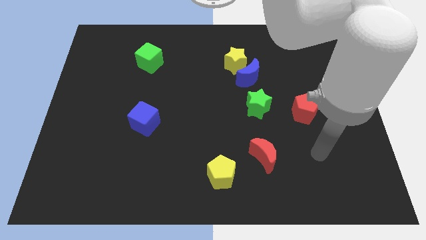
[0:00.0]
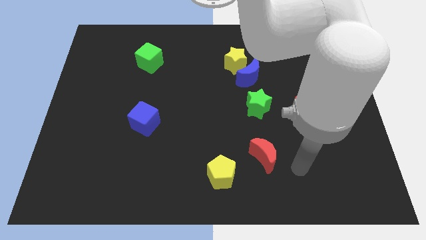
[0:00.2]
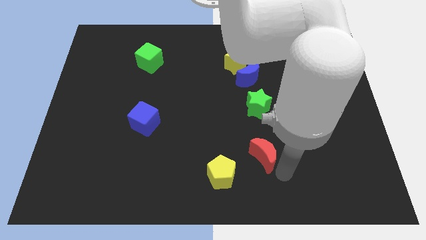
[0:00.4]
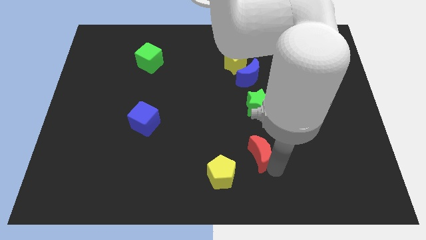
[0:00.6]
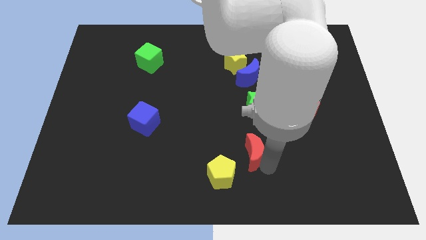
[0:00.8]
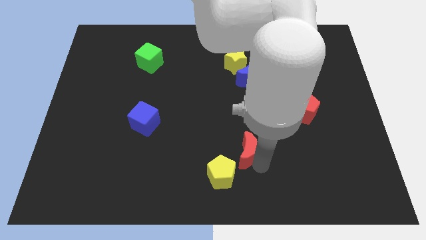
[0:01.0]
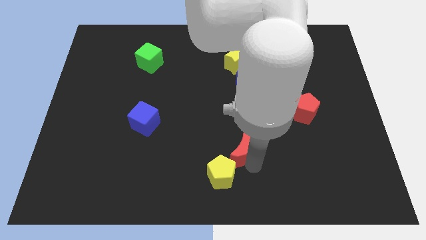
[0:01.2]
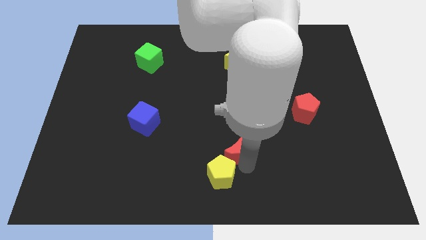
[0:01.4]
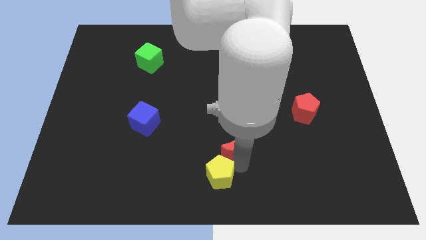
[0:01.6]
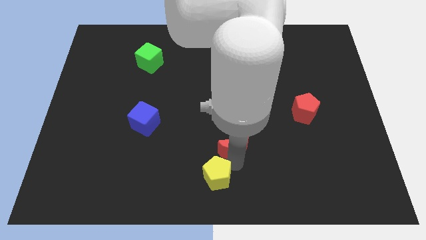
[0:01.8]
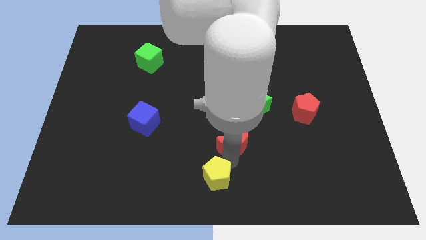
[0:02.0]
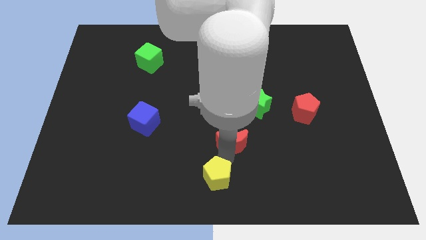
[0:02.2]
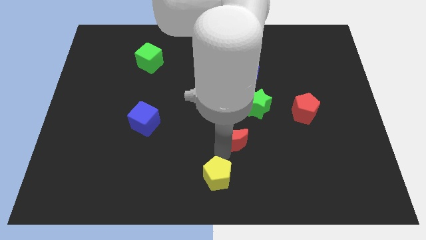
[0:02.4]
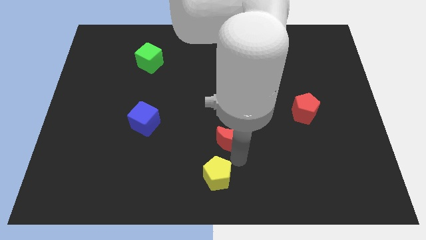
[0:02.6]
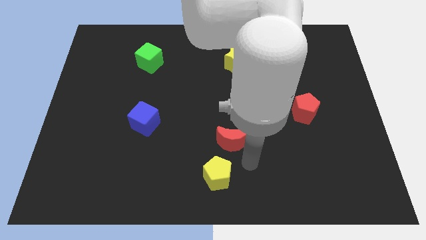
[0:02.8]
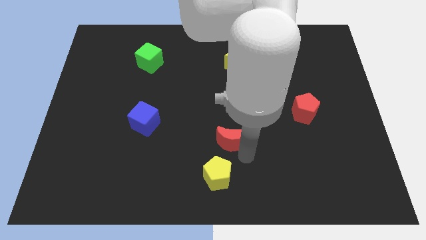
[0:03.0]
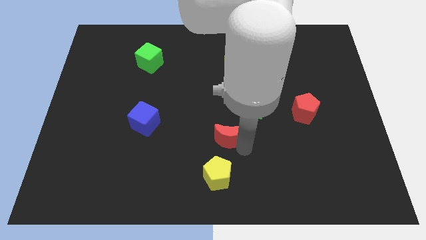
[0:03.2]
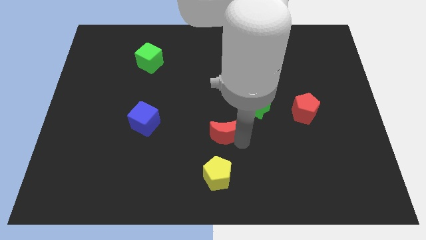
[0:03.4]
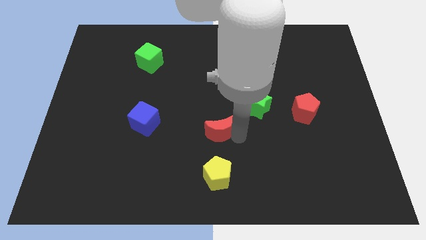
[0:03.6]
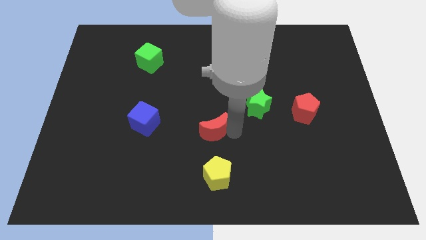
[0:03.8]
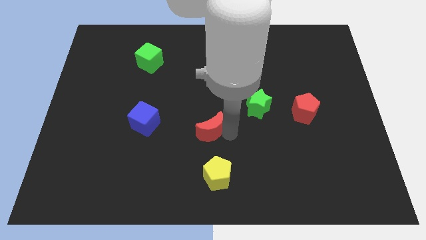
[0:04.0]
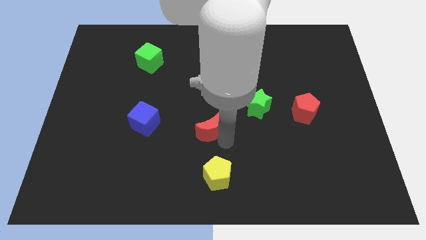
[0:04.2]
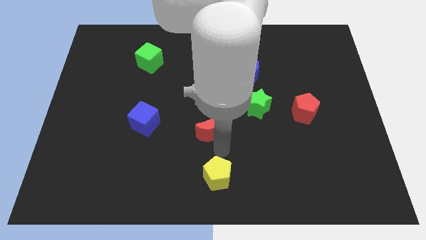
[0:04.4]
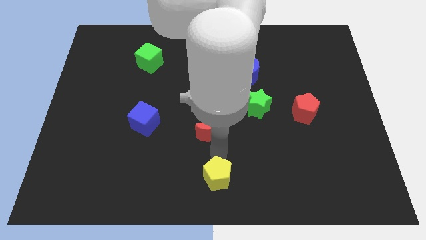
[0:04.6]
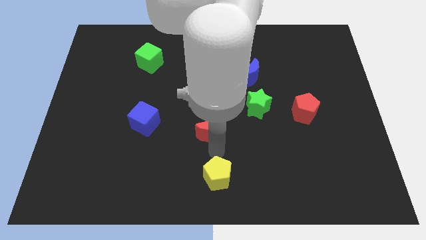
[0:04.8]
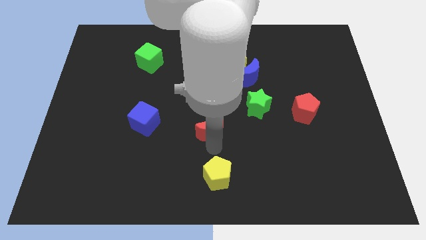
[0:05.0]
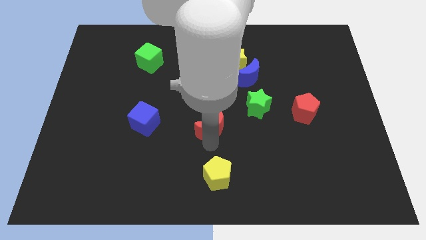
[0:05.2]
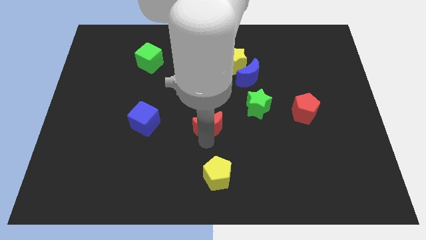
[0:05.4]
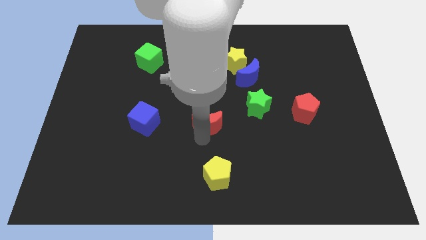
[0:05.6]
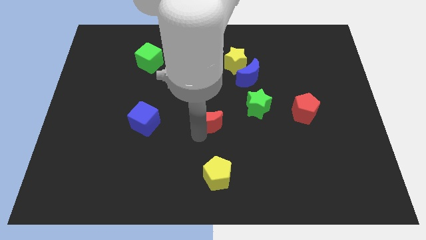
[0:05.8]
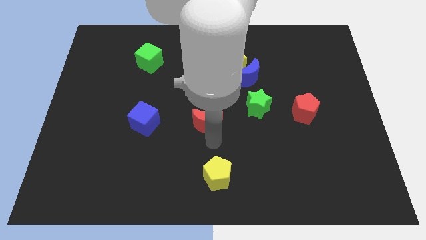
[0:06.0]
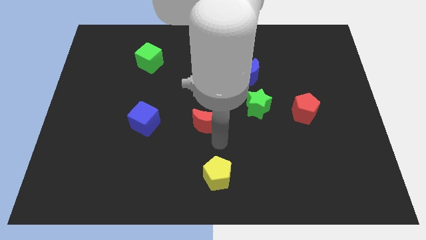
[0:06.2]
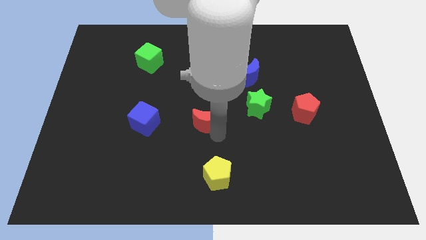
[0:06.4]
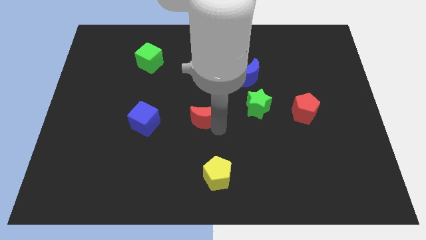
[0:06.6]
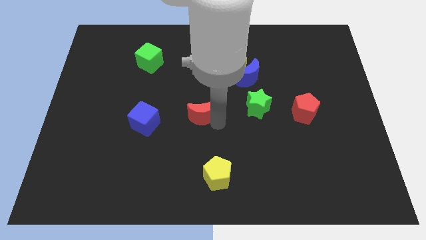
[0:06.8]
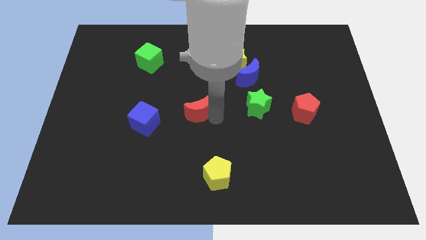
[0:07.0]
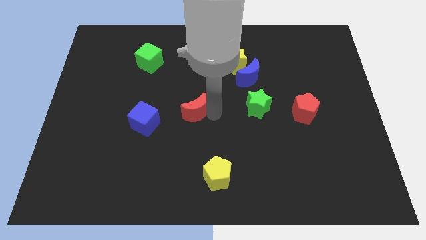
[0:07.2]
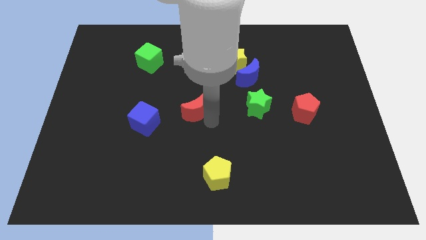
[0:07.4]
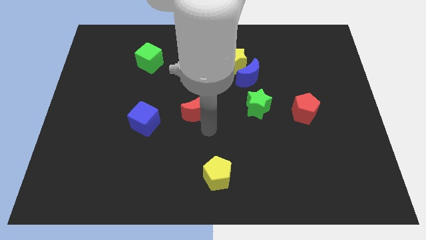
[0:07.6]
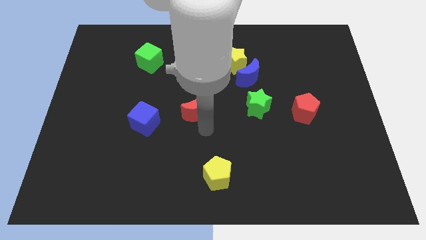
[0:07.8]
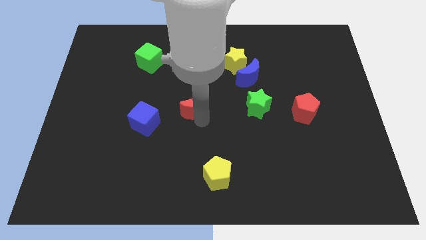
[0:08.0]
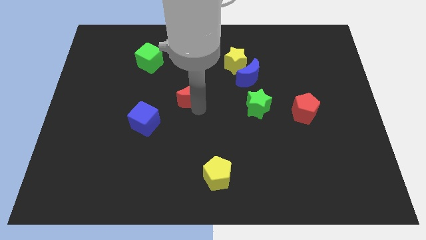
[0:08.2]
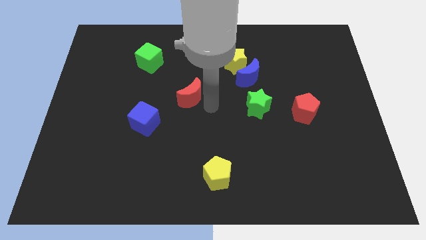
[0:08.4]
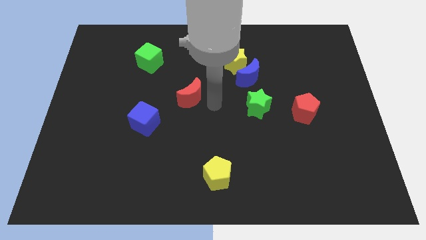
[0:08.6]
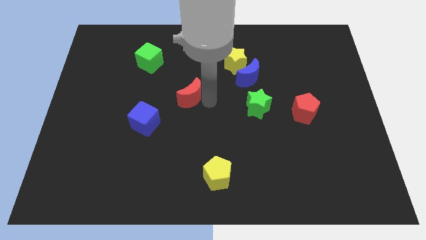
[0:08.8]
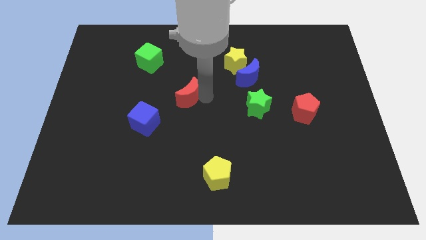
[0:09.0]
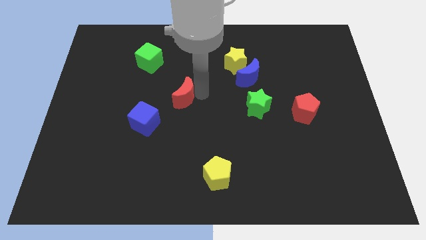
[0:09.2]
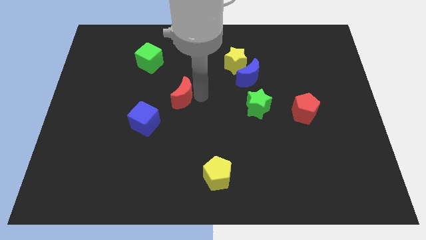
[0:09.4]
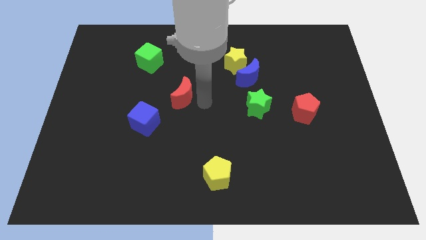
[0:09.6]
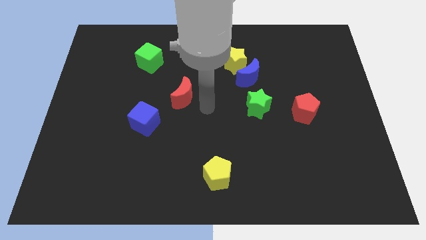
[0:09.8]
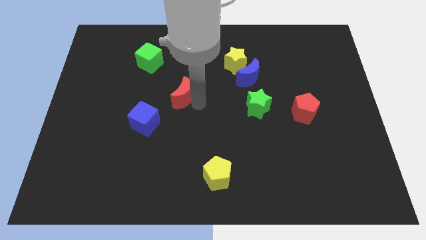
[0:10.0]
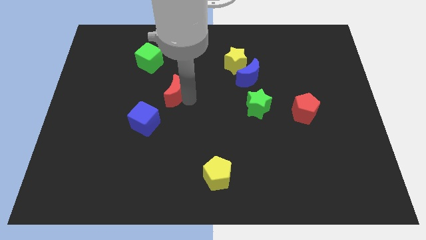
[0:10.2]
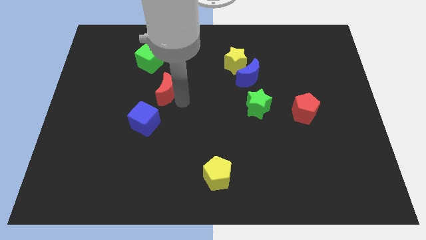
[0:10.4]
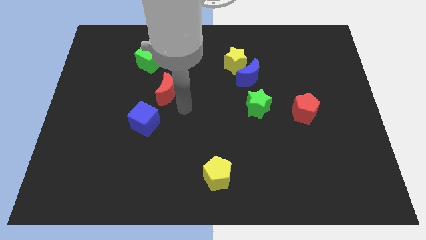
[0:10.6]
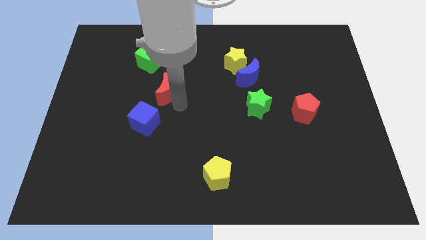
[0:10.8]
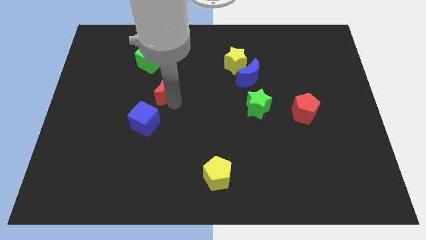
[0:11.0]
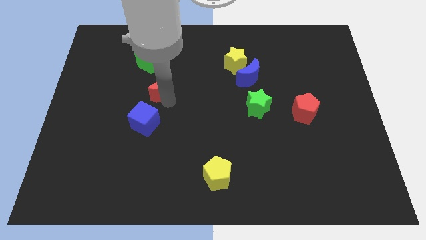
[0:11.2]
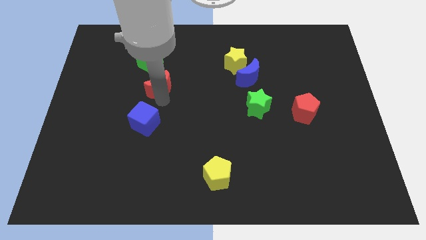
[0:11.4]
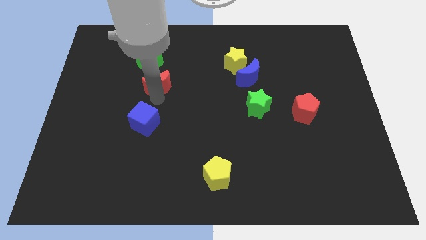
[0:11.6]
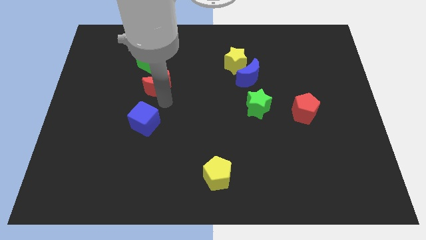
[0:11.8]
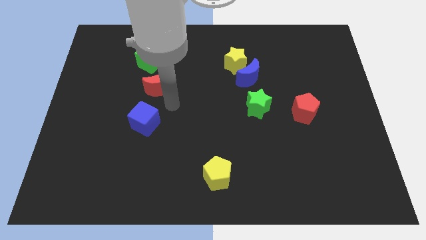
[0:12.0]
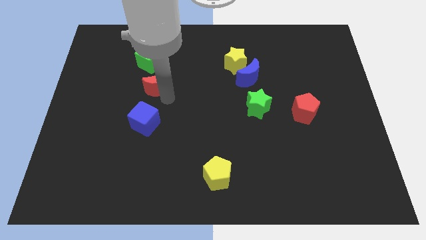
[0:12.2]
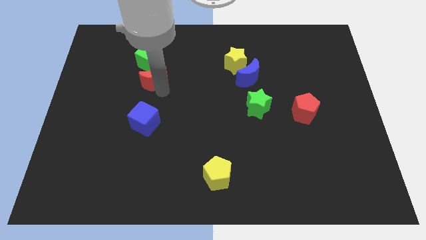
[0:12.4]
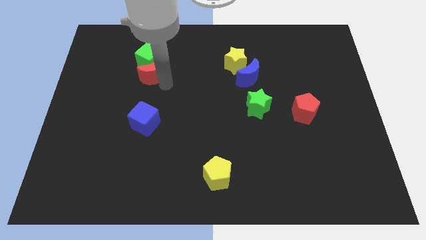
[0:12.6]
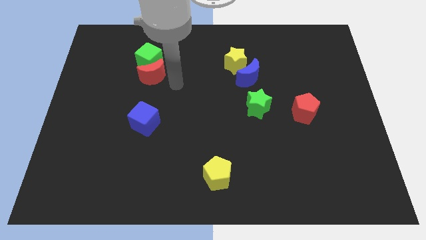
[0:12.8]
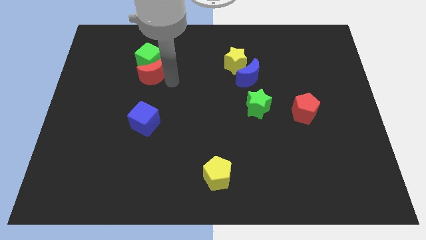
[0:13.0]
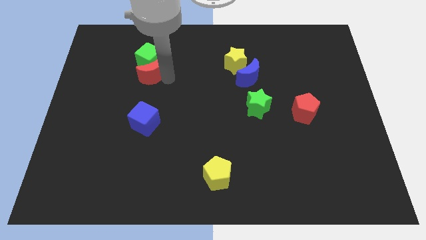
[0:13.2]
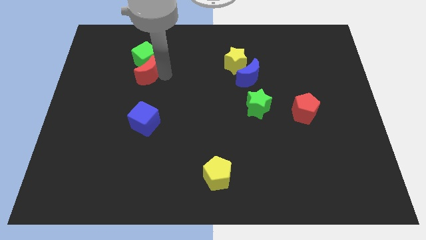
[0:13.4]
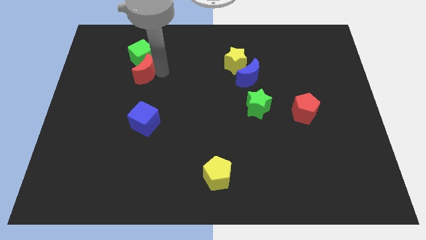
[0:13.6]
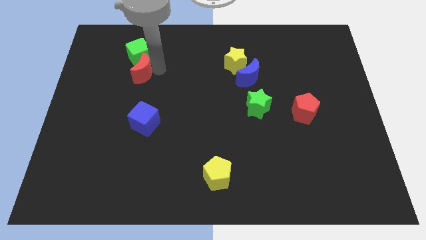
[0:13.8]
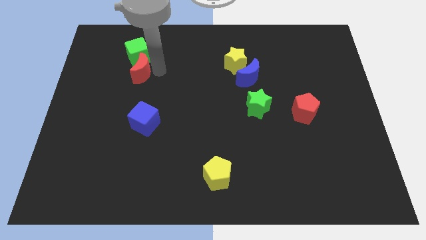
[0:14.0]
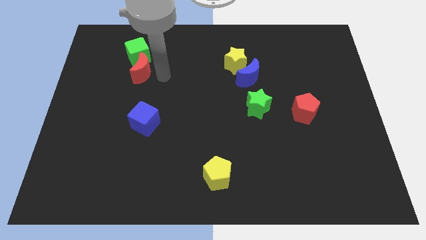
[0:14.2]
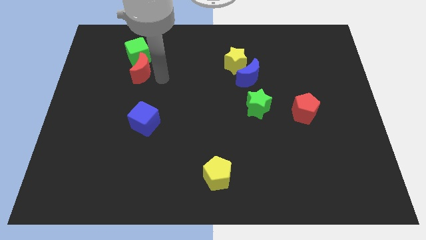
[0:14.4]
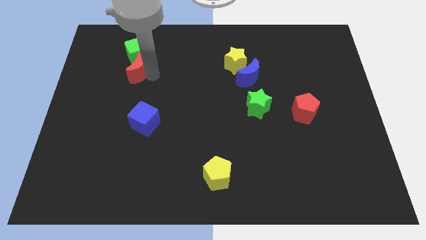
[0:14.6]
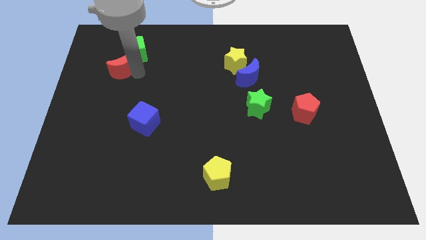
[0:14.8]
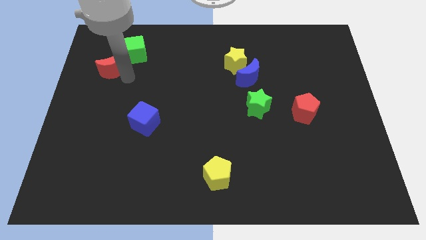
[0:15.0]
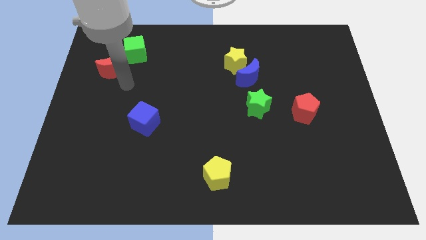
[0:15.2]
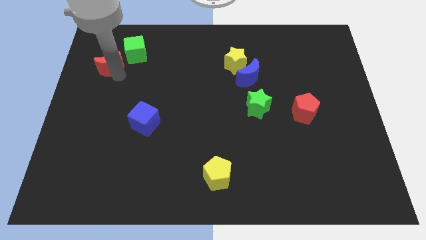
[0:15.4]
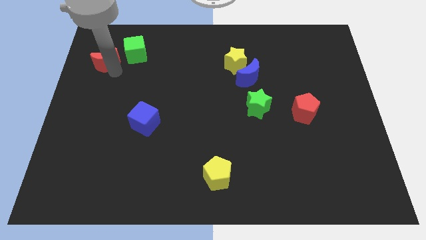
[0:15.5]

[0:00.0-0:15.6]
push the red moon just left of the green cube
